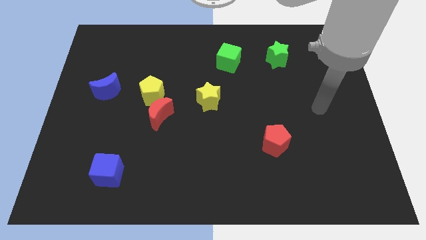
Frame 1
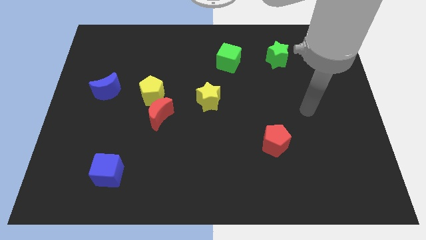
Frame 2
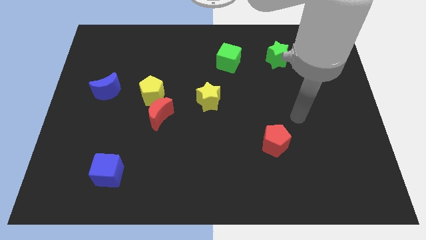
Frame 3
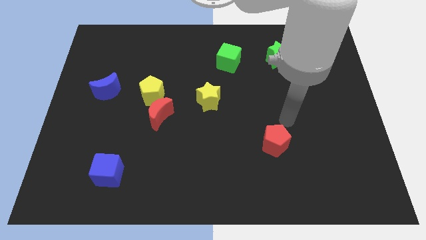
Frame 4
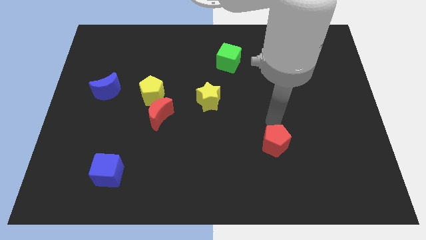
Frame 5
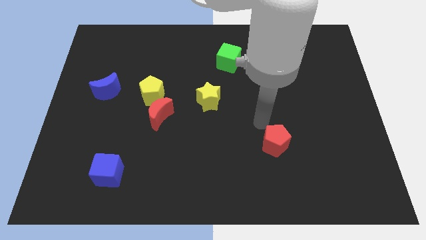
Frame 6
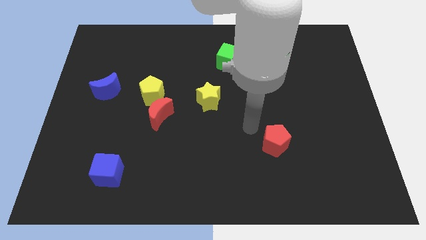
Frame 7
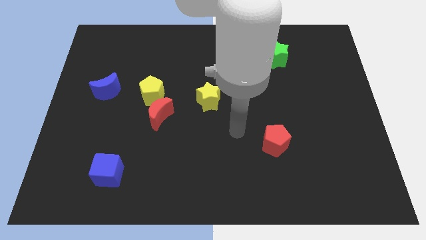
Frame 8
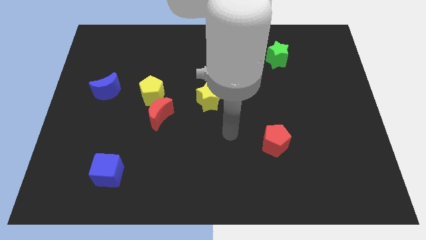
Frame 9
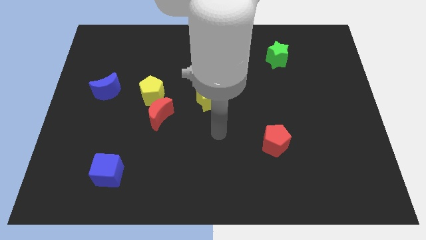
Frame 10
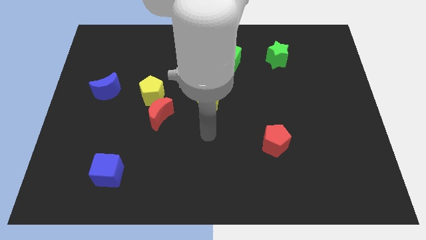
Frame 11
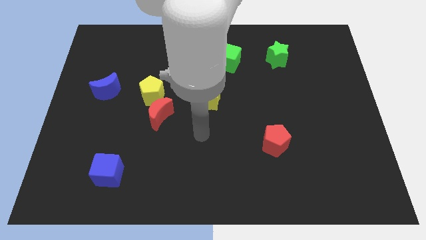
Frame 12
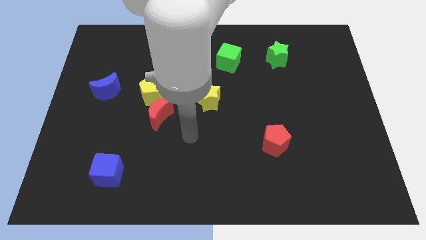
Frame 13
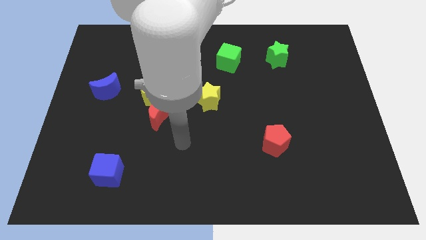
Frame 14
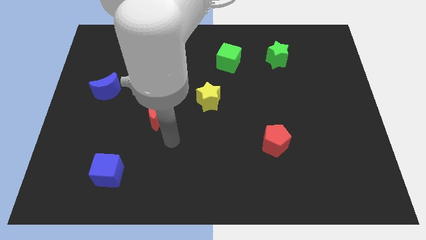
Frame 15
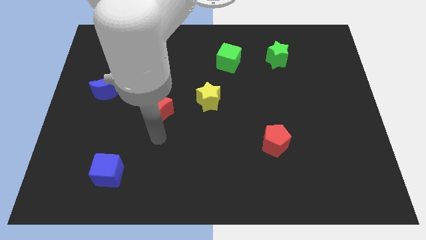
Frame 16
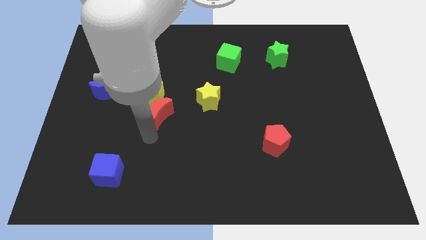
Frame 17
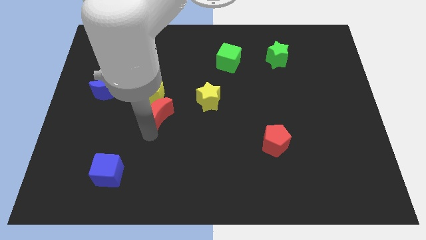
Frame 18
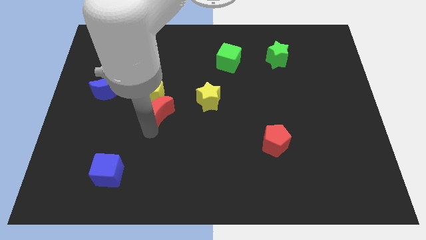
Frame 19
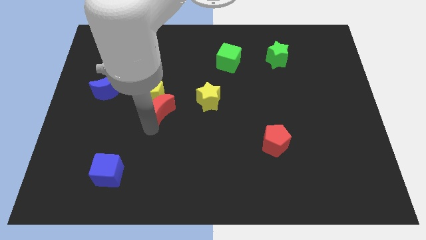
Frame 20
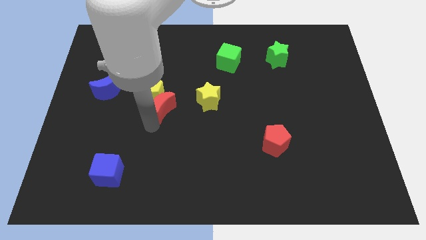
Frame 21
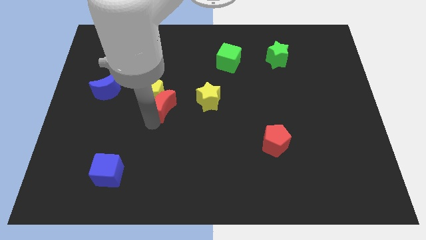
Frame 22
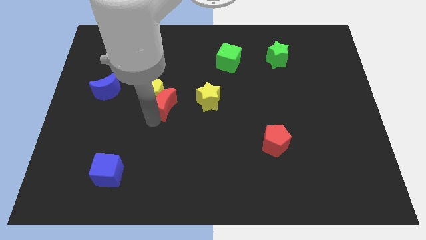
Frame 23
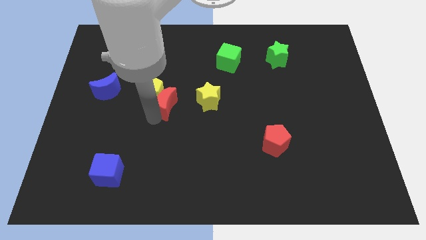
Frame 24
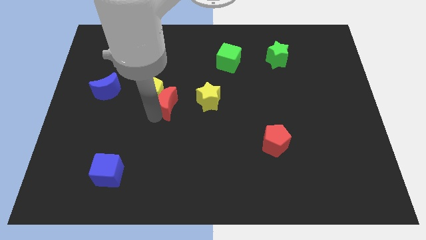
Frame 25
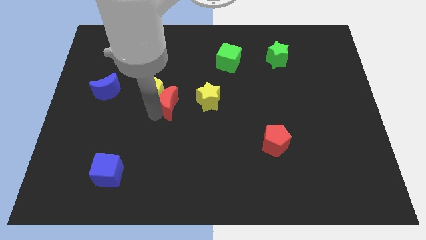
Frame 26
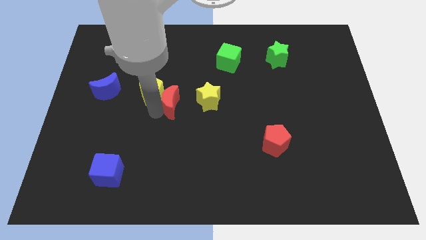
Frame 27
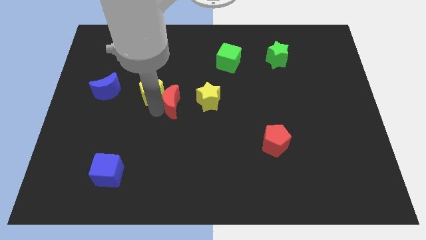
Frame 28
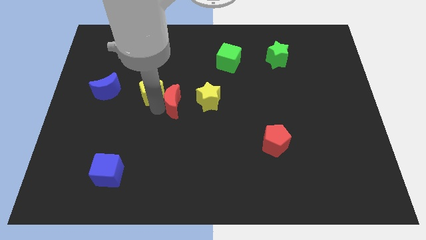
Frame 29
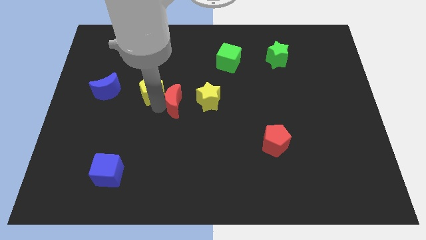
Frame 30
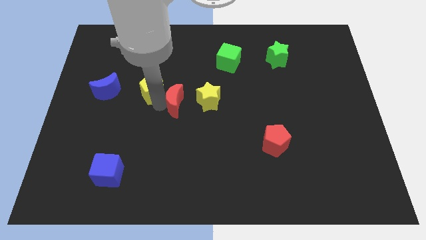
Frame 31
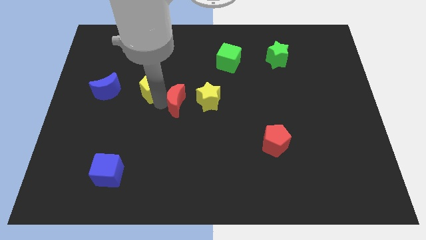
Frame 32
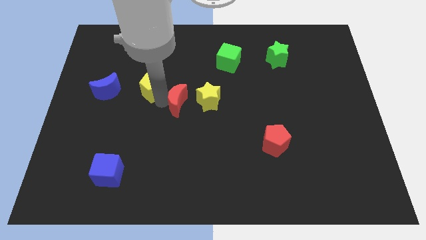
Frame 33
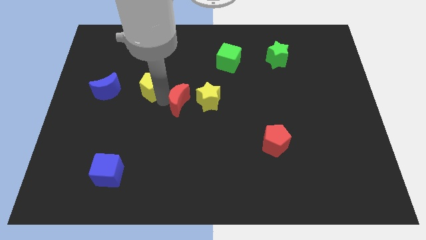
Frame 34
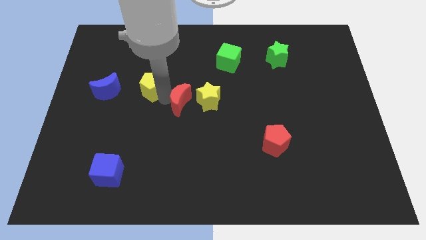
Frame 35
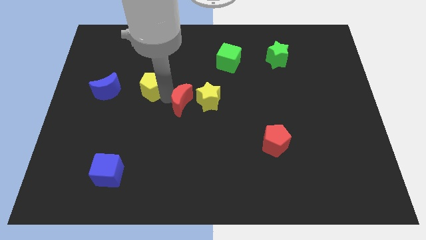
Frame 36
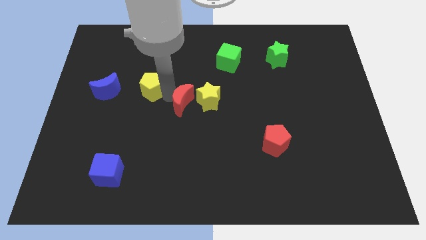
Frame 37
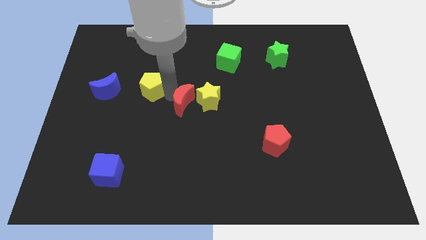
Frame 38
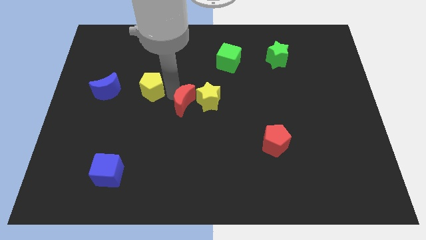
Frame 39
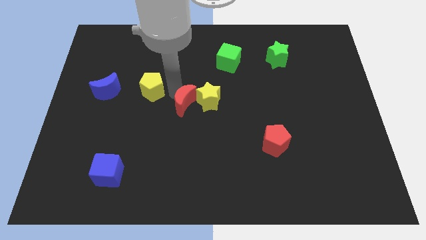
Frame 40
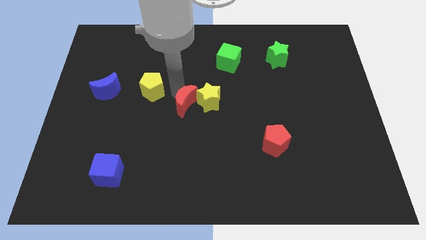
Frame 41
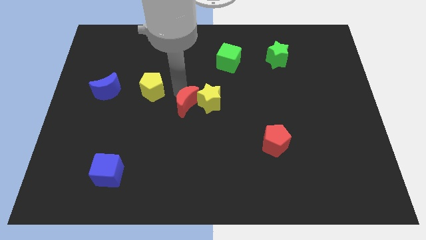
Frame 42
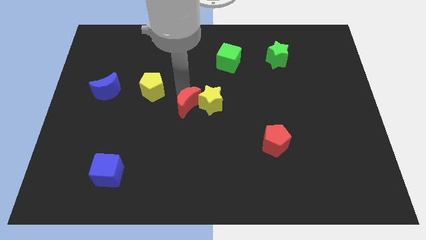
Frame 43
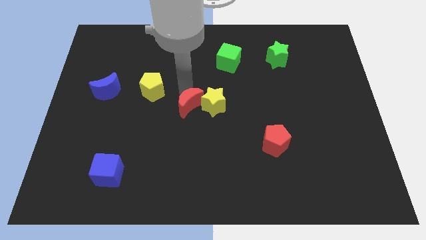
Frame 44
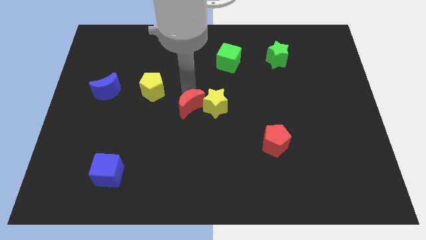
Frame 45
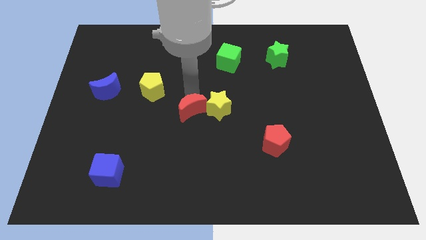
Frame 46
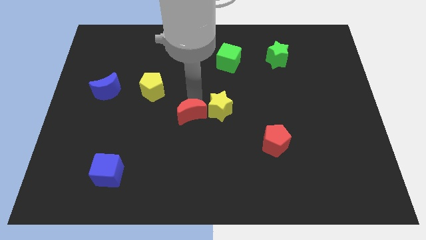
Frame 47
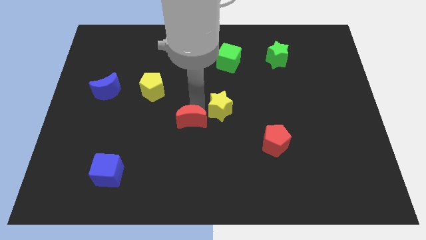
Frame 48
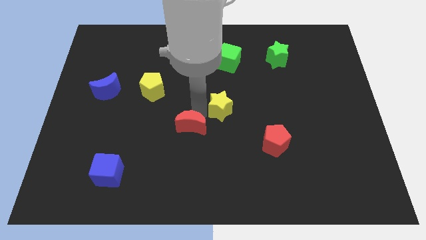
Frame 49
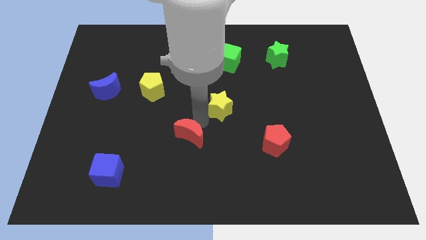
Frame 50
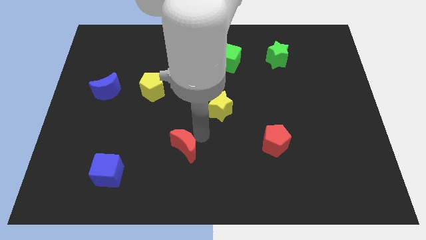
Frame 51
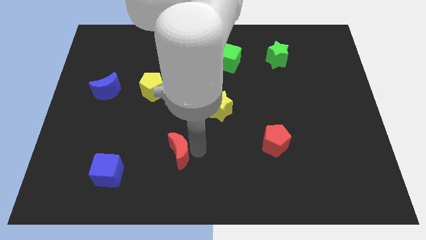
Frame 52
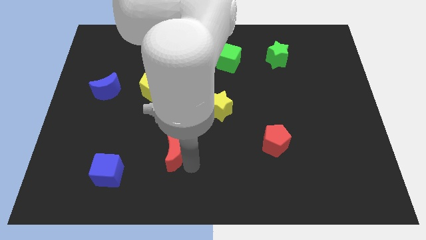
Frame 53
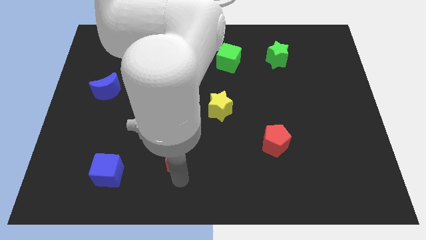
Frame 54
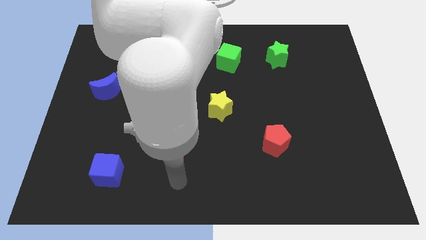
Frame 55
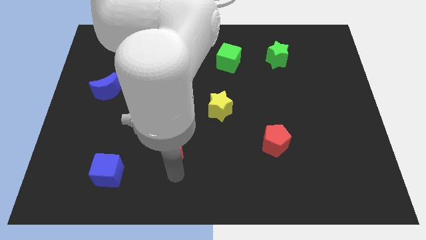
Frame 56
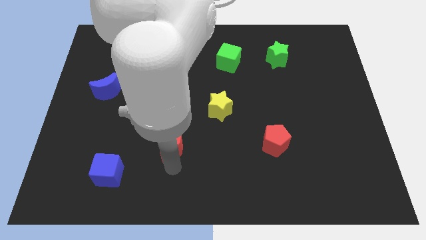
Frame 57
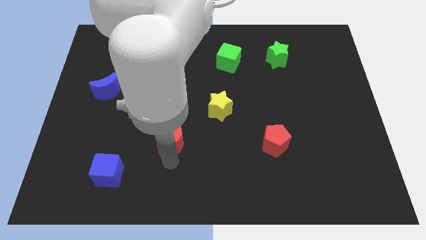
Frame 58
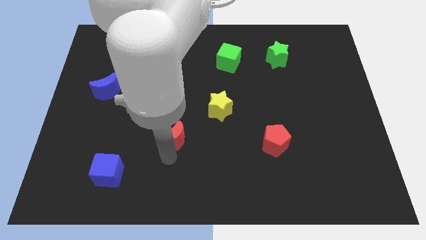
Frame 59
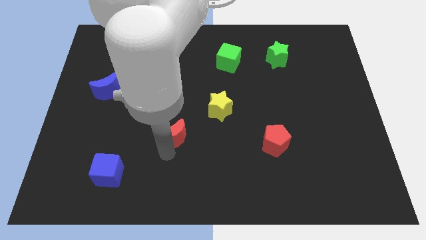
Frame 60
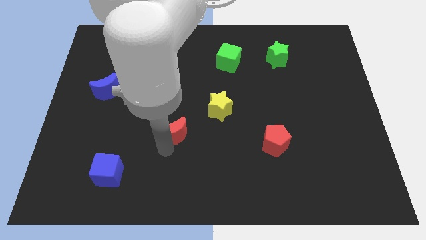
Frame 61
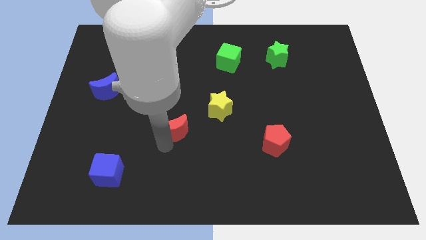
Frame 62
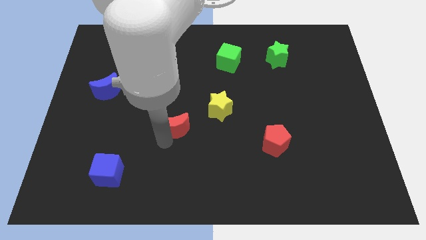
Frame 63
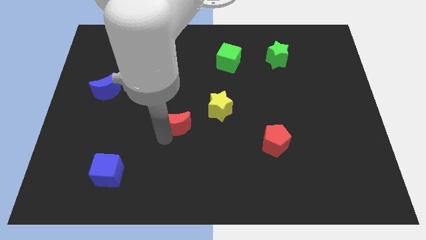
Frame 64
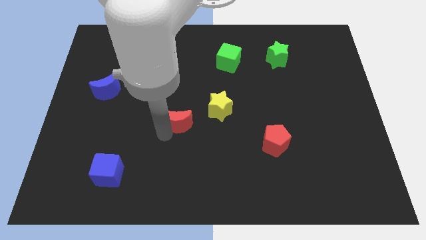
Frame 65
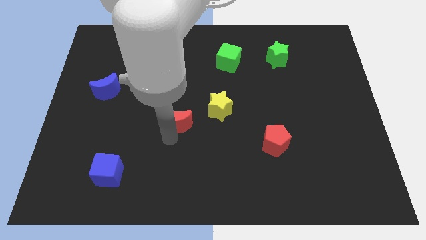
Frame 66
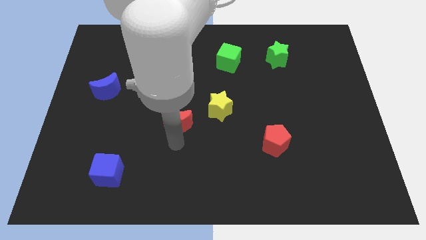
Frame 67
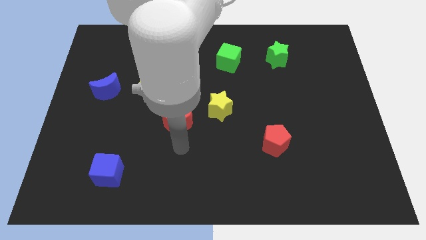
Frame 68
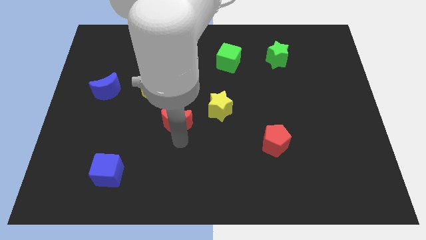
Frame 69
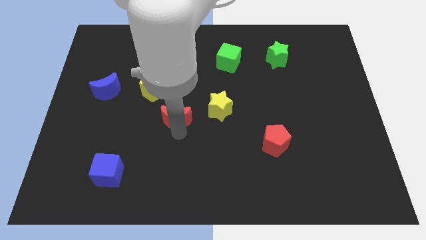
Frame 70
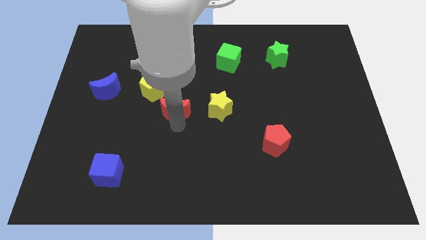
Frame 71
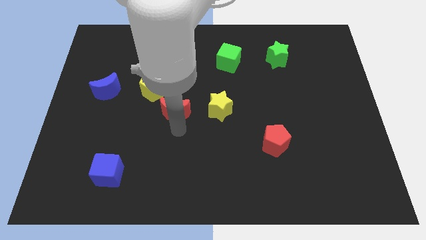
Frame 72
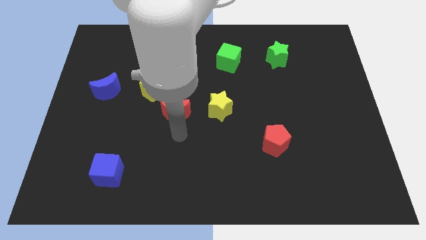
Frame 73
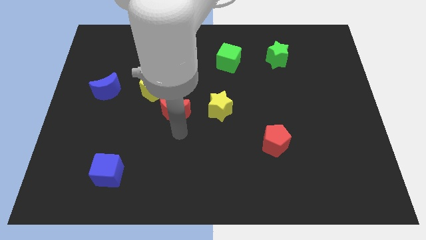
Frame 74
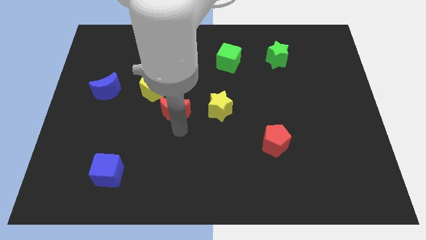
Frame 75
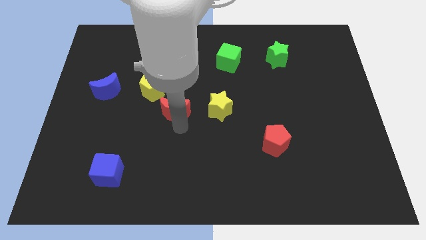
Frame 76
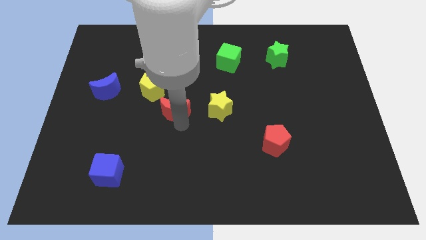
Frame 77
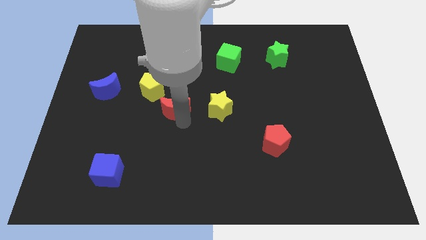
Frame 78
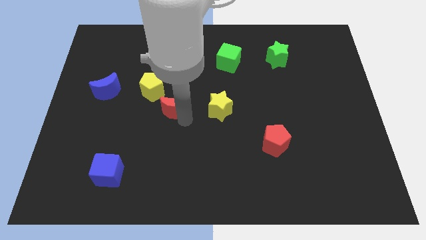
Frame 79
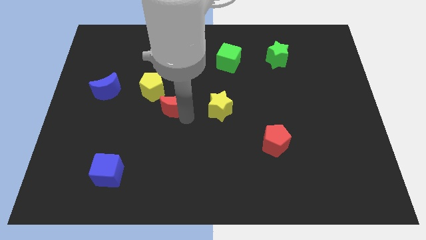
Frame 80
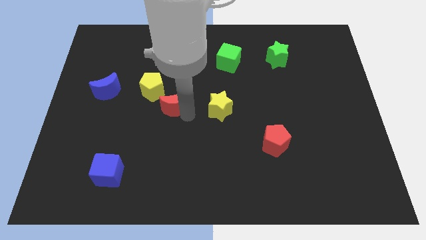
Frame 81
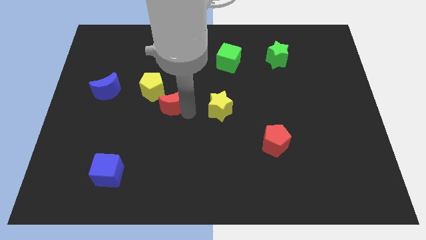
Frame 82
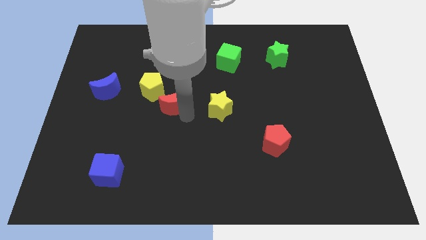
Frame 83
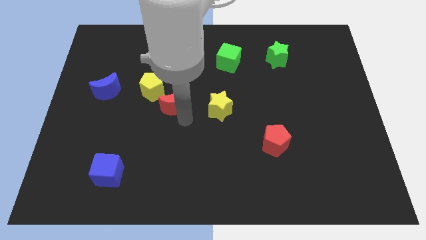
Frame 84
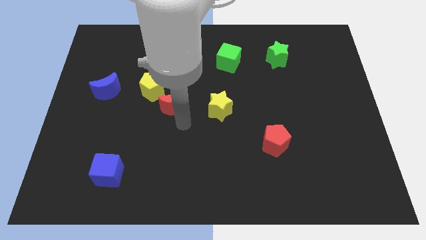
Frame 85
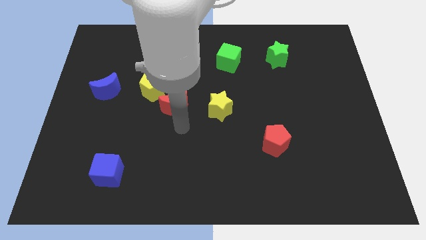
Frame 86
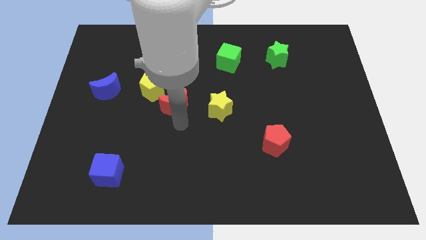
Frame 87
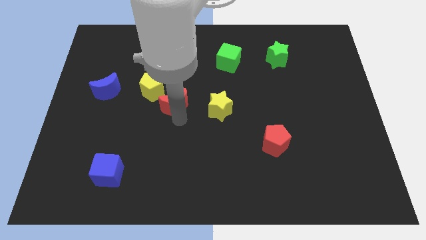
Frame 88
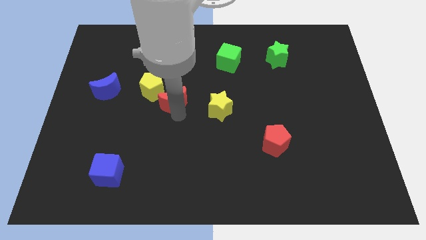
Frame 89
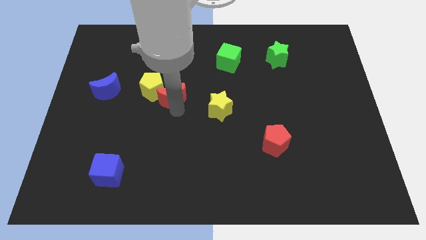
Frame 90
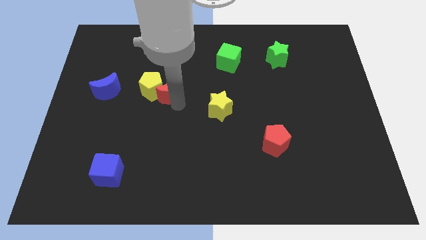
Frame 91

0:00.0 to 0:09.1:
slide the red moon to the right of the blue moon
